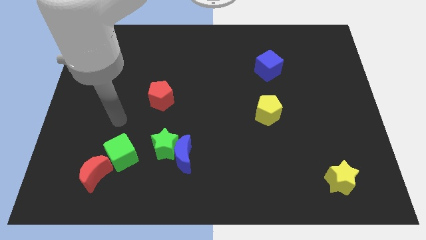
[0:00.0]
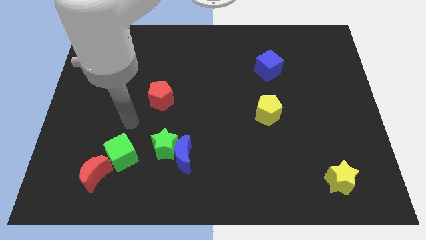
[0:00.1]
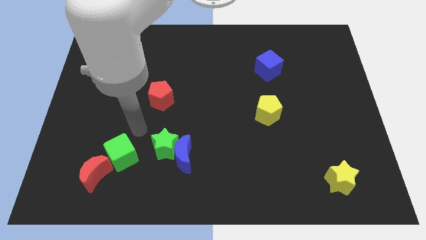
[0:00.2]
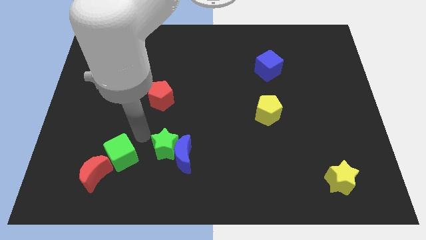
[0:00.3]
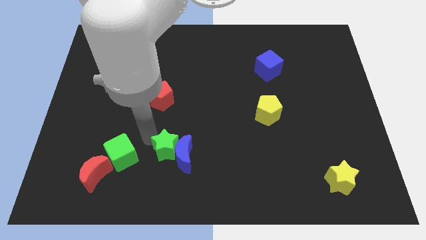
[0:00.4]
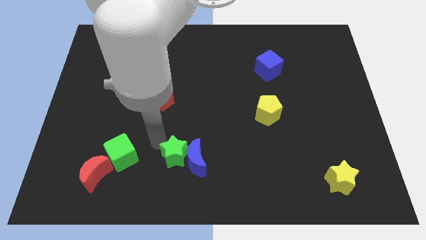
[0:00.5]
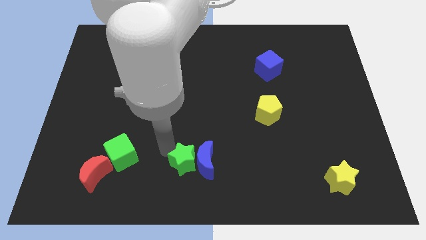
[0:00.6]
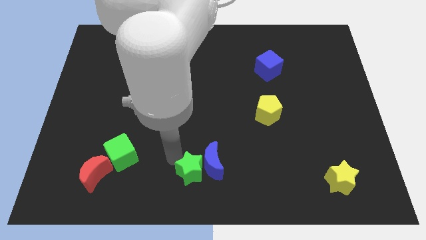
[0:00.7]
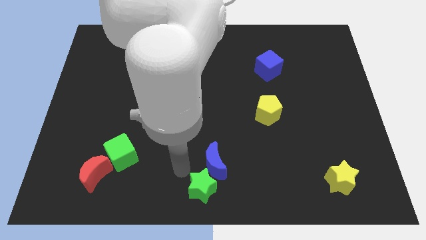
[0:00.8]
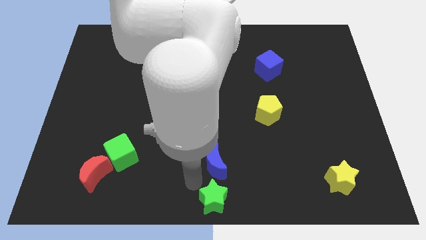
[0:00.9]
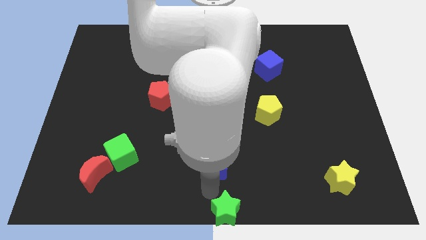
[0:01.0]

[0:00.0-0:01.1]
separate the blue moon from the green star

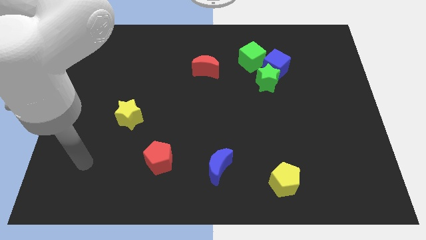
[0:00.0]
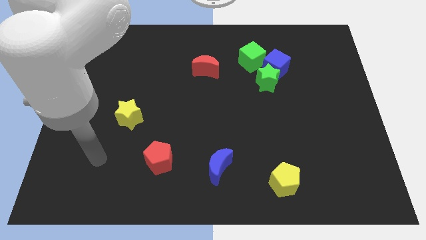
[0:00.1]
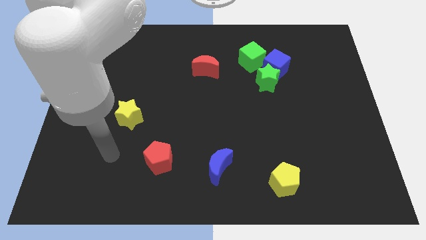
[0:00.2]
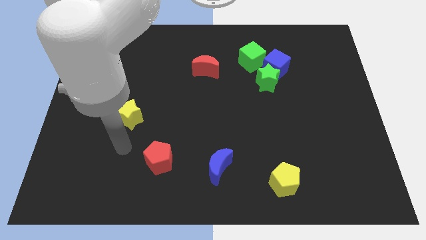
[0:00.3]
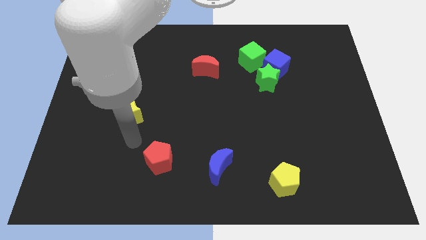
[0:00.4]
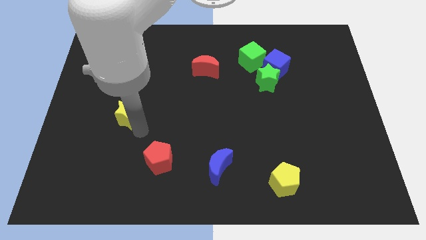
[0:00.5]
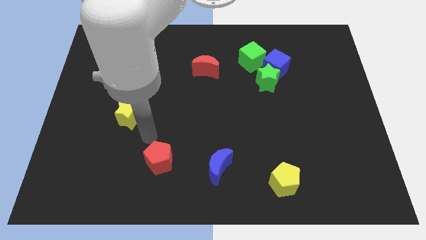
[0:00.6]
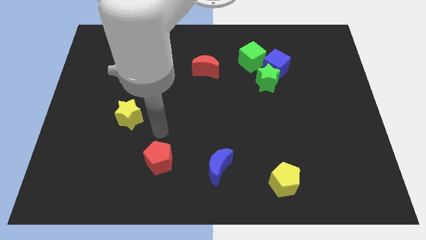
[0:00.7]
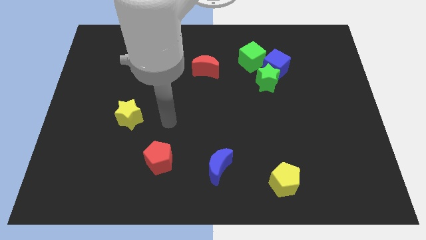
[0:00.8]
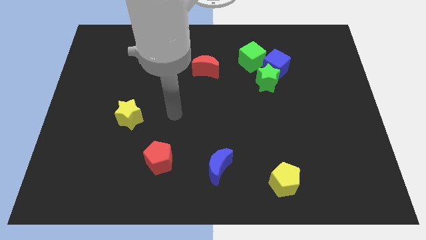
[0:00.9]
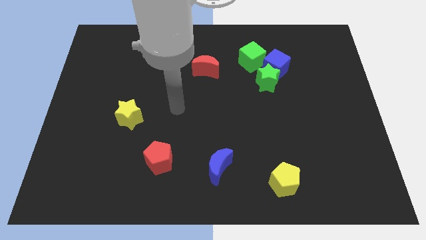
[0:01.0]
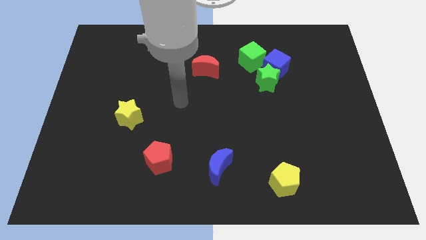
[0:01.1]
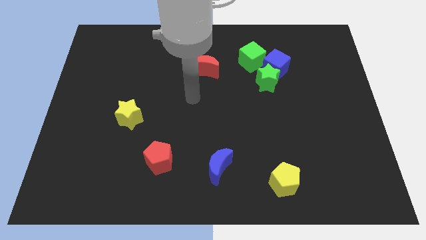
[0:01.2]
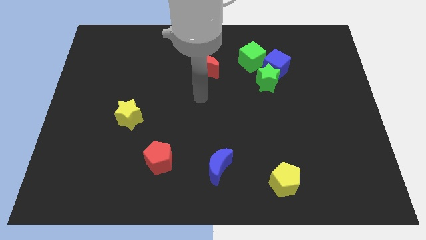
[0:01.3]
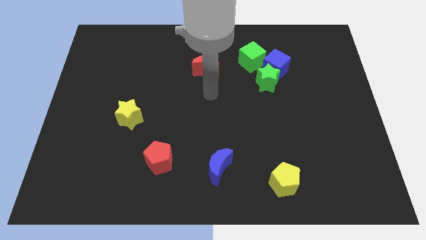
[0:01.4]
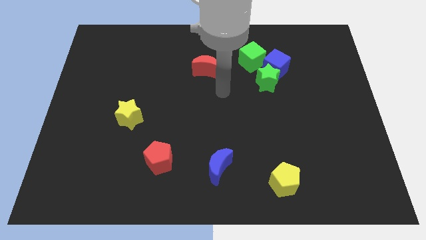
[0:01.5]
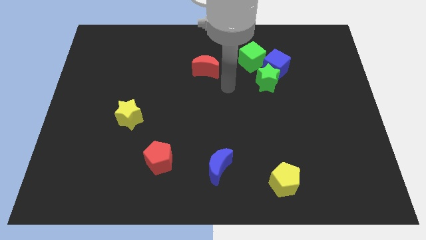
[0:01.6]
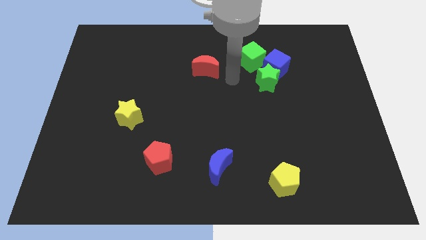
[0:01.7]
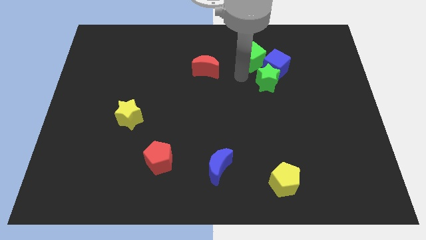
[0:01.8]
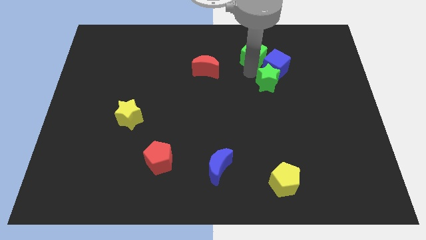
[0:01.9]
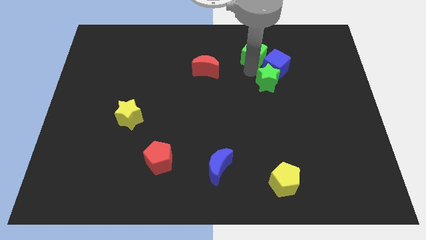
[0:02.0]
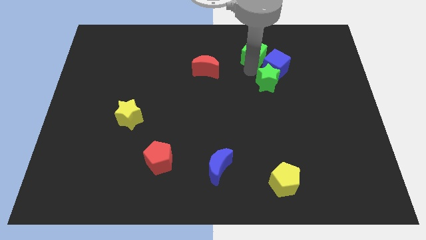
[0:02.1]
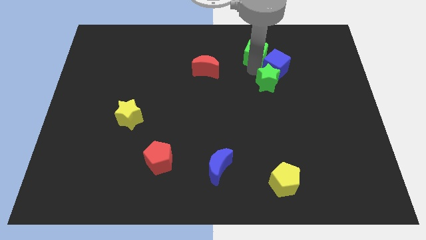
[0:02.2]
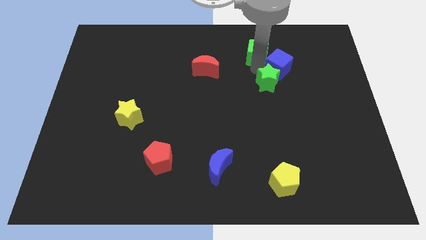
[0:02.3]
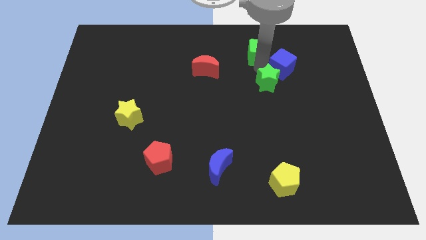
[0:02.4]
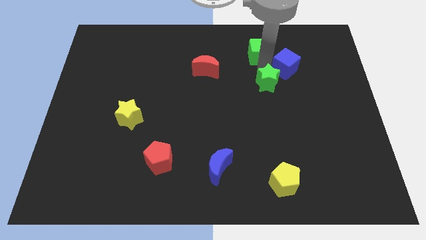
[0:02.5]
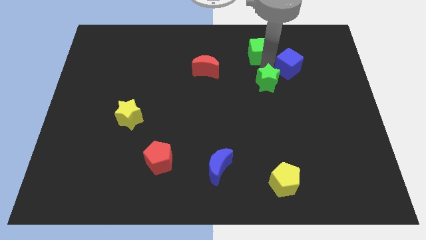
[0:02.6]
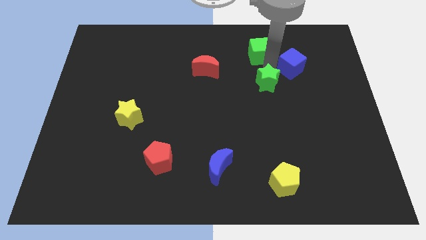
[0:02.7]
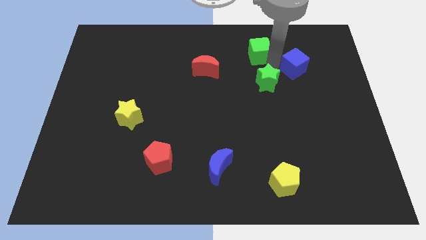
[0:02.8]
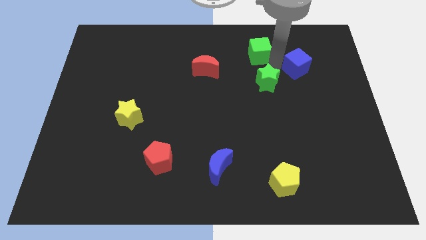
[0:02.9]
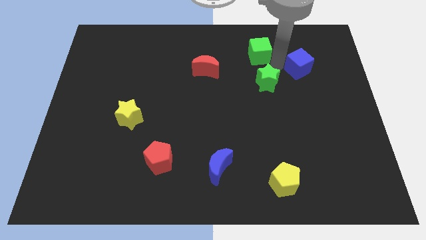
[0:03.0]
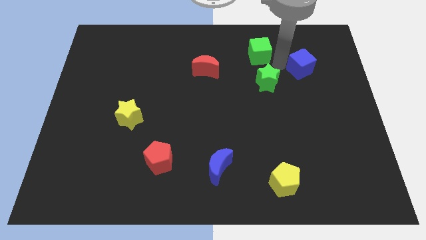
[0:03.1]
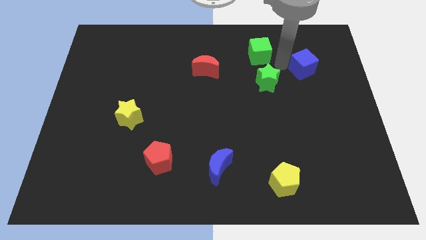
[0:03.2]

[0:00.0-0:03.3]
separate the blue cube from the green star and green cube

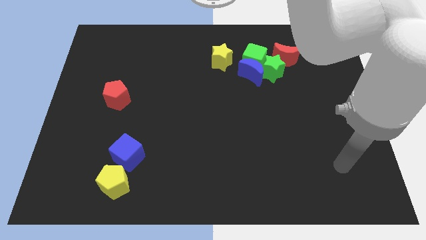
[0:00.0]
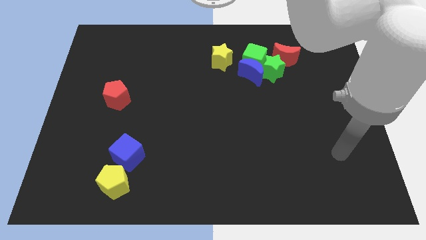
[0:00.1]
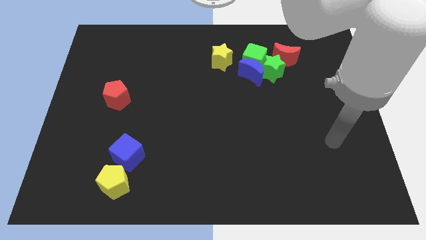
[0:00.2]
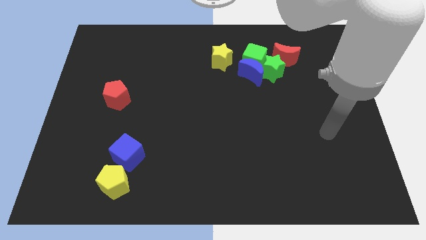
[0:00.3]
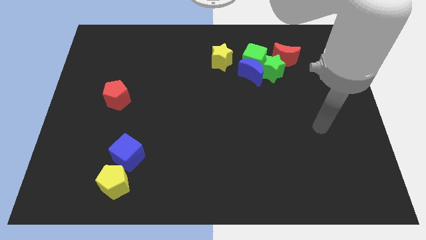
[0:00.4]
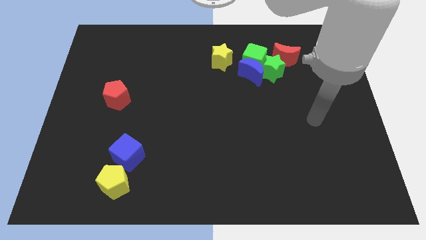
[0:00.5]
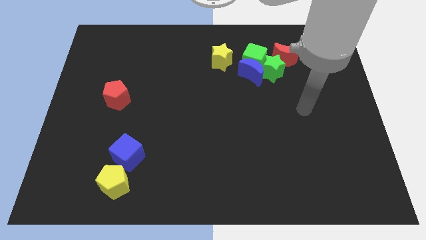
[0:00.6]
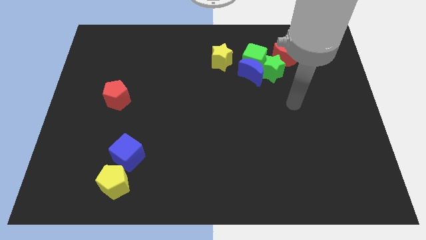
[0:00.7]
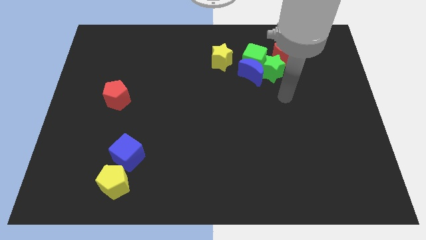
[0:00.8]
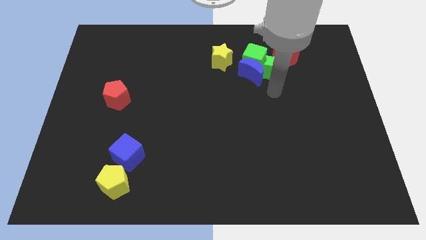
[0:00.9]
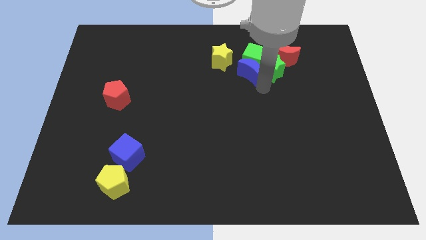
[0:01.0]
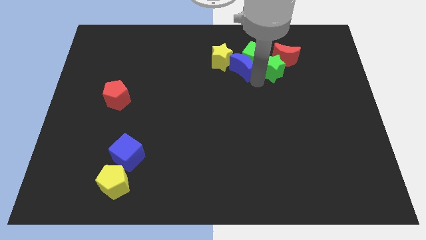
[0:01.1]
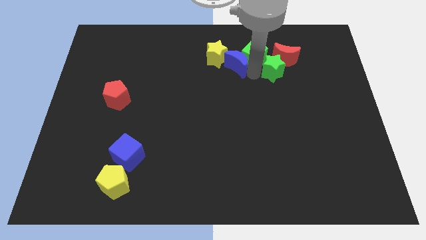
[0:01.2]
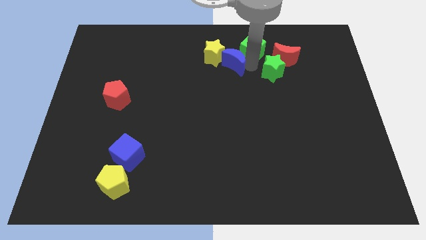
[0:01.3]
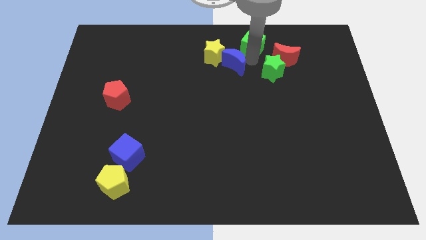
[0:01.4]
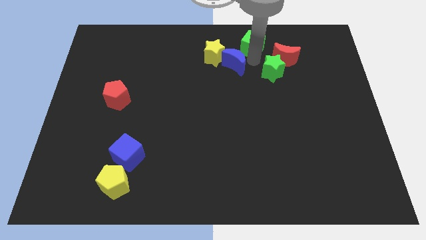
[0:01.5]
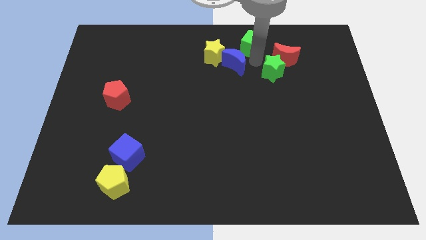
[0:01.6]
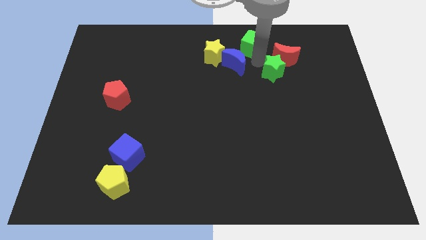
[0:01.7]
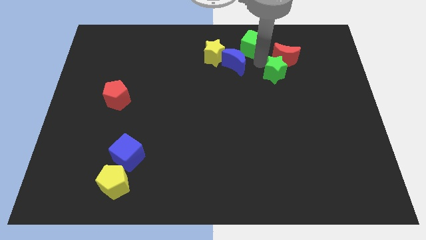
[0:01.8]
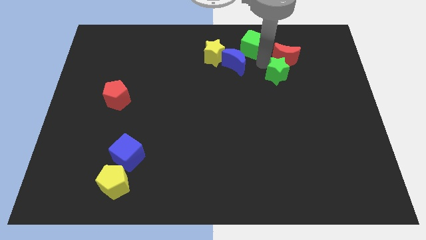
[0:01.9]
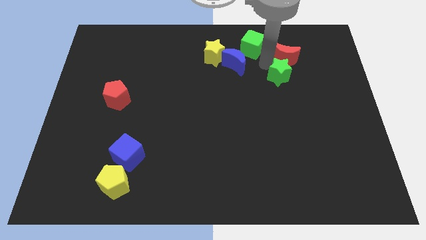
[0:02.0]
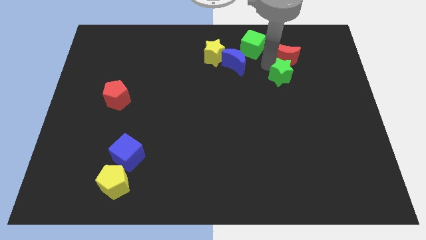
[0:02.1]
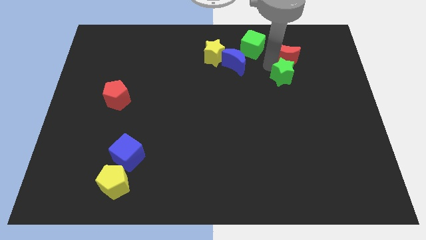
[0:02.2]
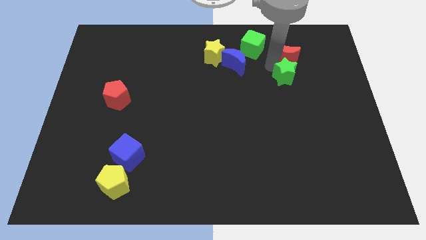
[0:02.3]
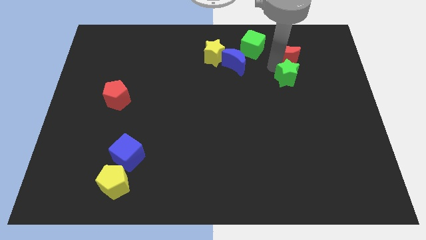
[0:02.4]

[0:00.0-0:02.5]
separate the green star from the clump

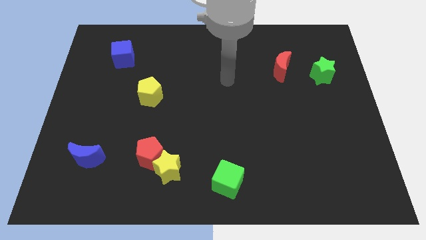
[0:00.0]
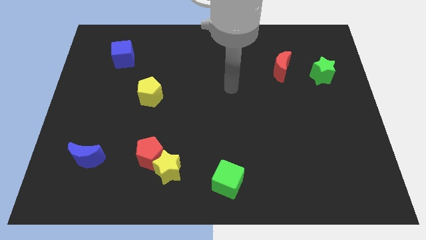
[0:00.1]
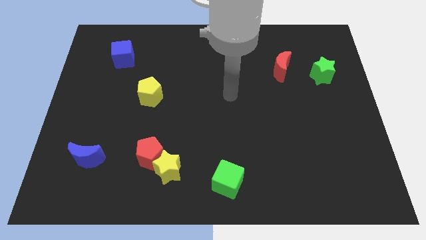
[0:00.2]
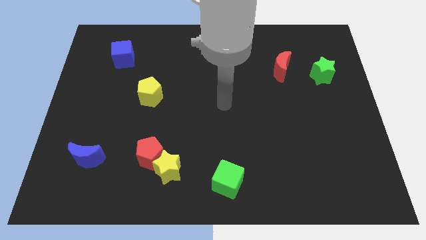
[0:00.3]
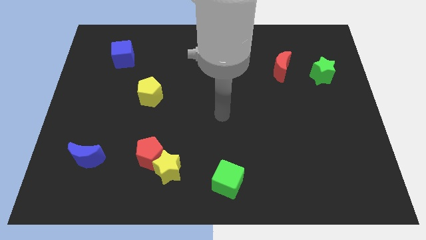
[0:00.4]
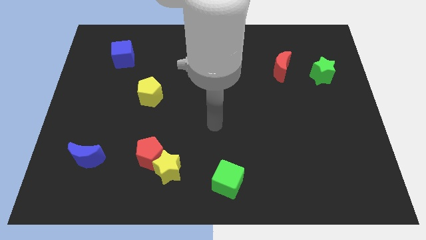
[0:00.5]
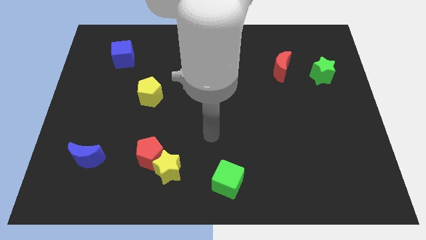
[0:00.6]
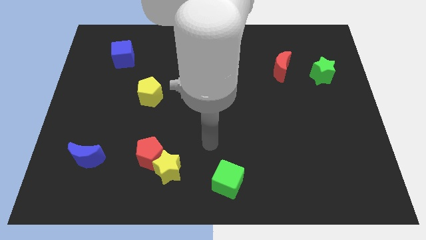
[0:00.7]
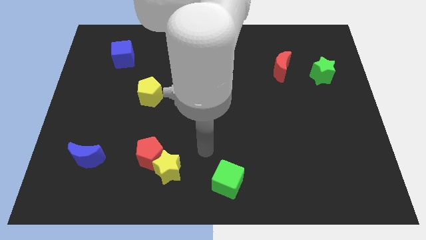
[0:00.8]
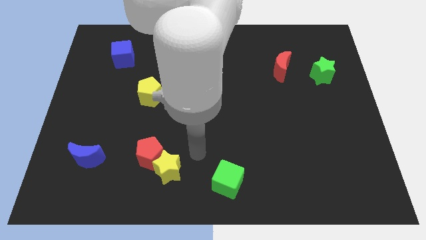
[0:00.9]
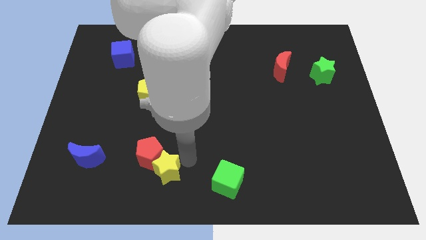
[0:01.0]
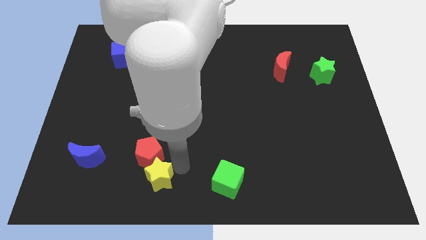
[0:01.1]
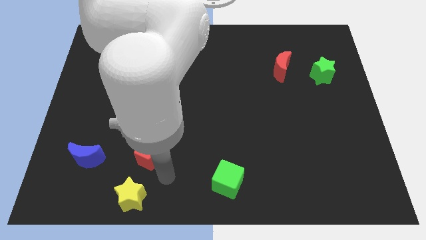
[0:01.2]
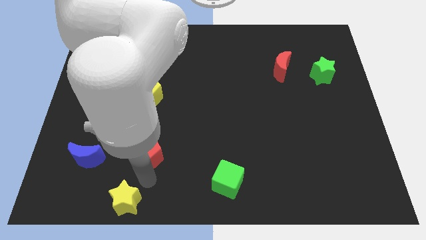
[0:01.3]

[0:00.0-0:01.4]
separate the red pentagon from the yellow star

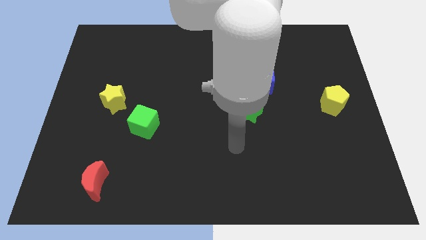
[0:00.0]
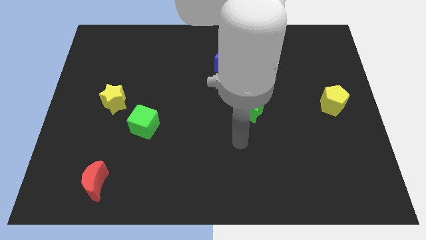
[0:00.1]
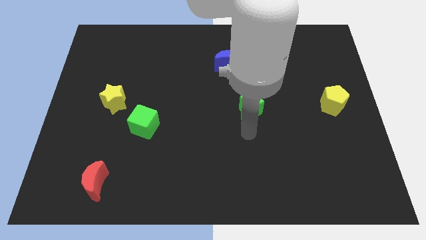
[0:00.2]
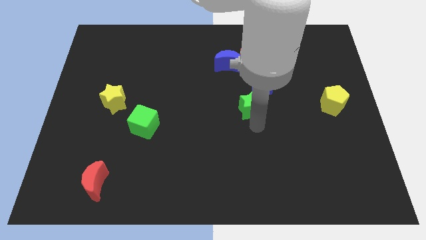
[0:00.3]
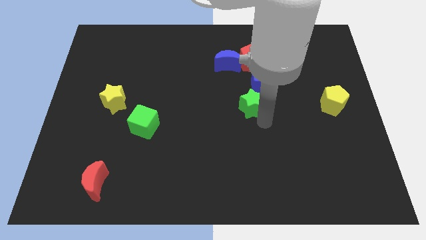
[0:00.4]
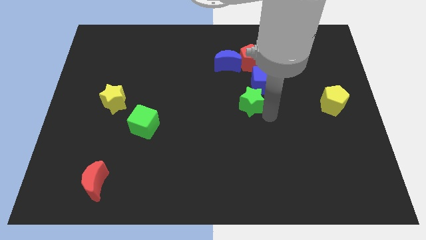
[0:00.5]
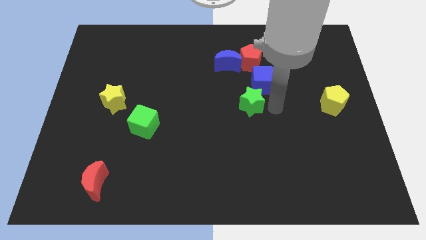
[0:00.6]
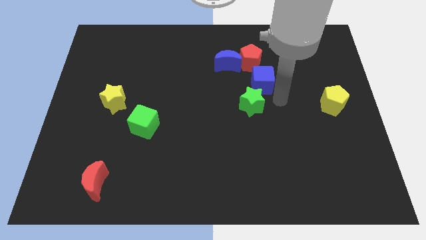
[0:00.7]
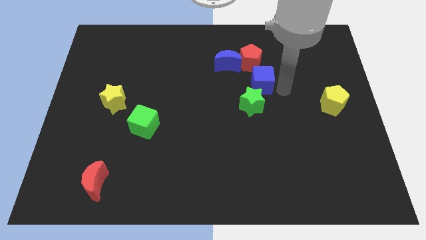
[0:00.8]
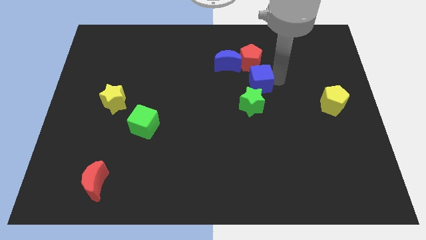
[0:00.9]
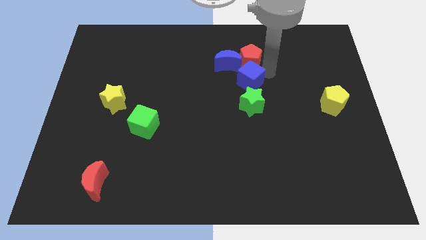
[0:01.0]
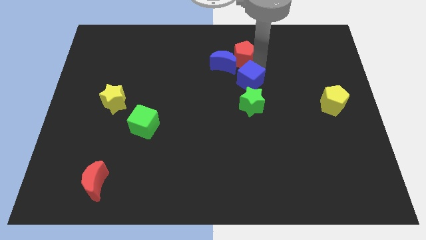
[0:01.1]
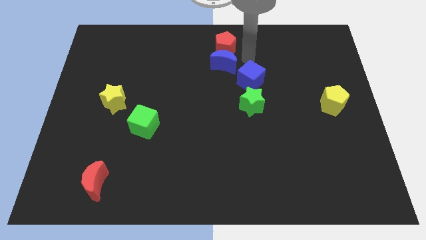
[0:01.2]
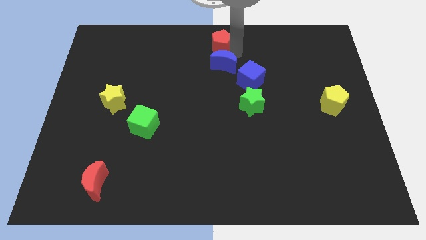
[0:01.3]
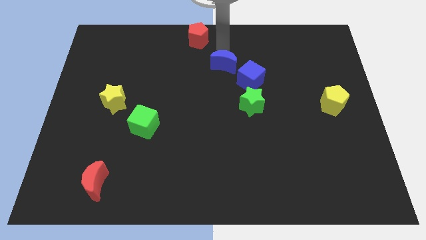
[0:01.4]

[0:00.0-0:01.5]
separate the blue moon from the red pentagon
